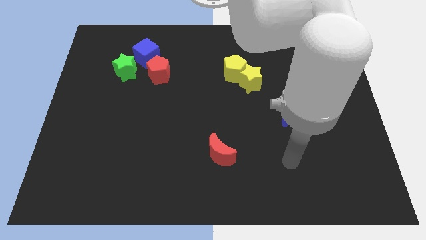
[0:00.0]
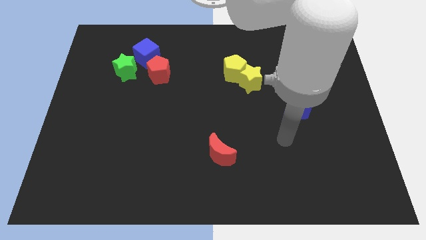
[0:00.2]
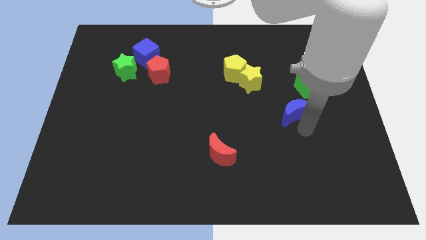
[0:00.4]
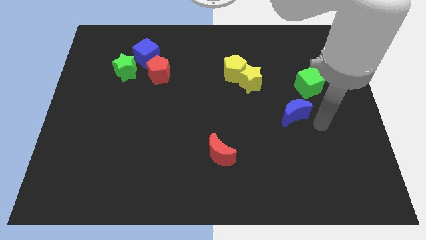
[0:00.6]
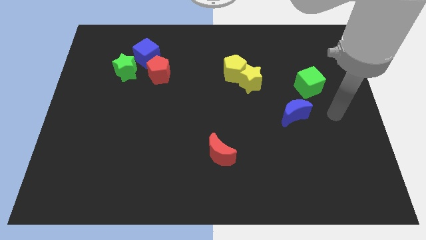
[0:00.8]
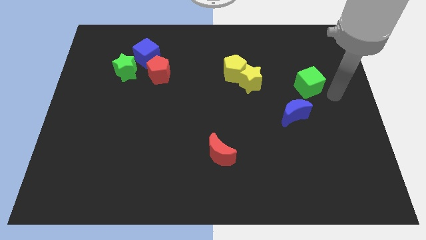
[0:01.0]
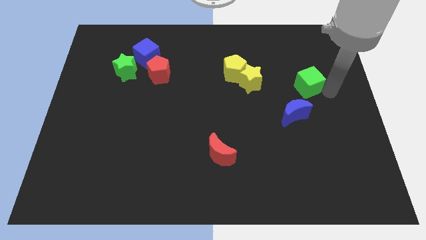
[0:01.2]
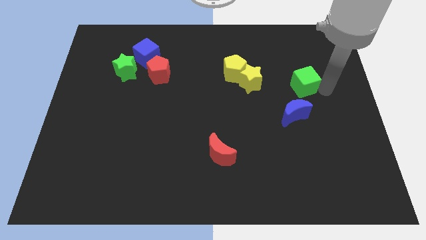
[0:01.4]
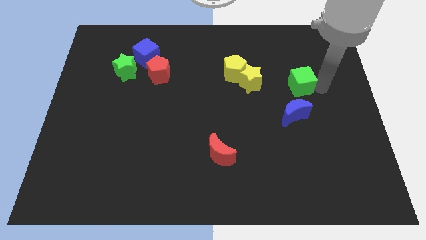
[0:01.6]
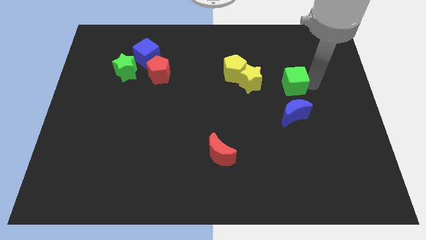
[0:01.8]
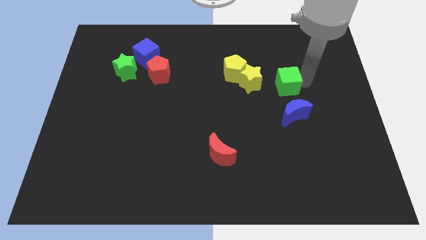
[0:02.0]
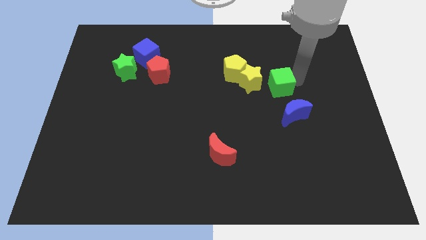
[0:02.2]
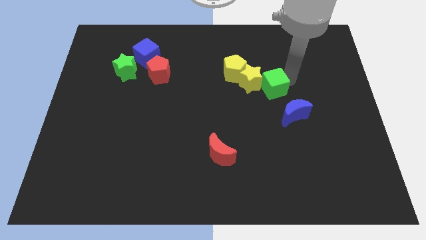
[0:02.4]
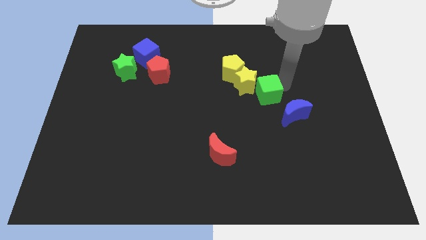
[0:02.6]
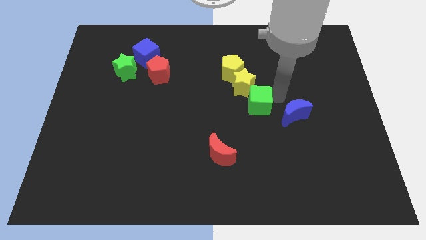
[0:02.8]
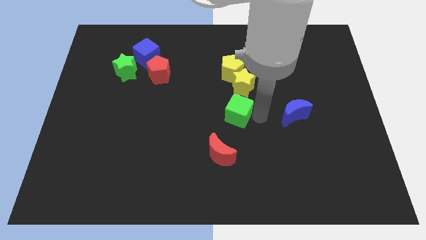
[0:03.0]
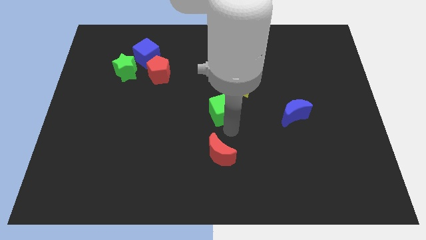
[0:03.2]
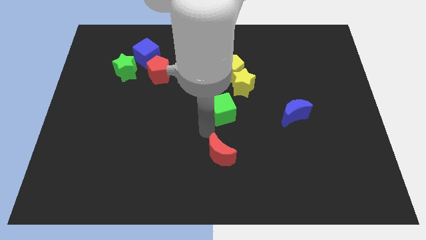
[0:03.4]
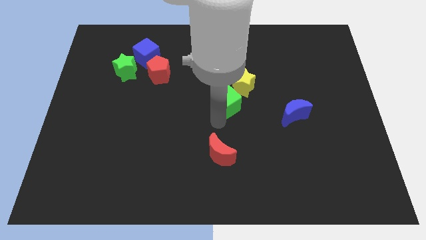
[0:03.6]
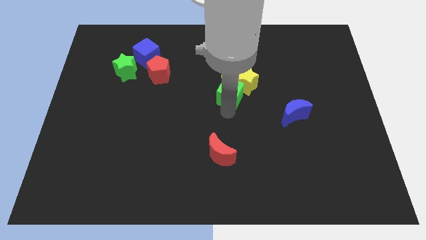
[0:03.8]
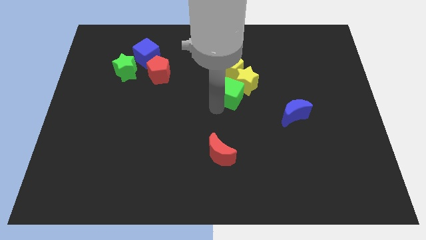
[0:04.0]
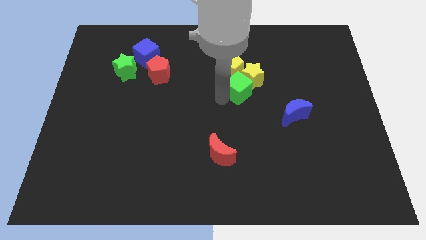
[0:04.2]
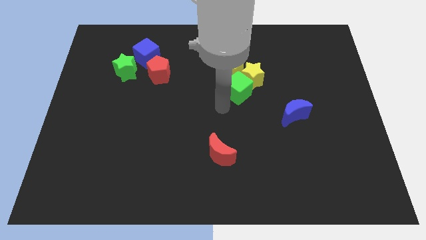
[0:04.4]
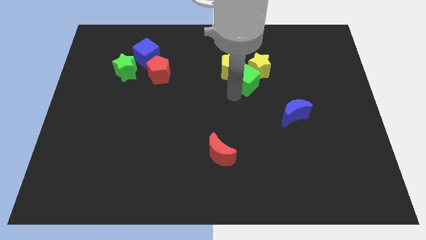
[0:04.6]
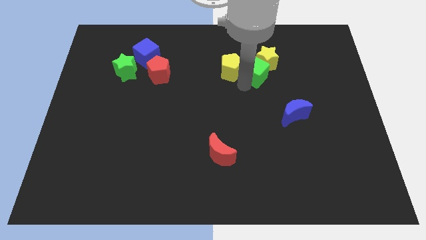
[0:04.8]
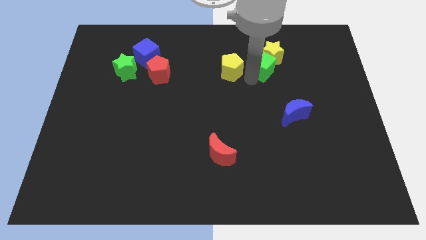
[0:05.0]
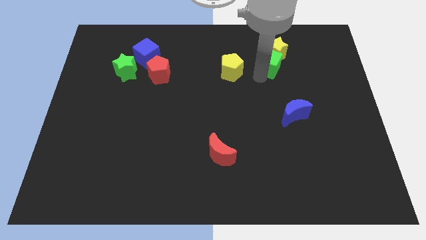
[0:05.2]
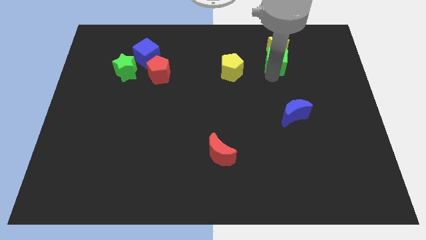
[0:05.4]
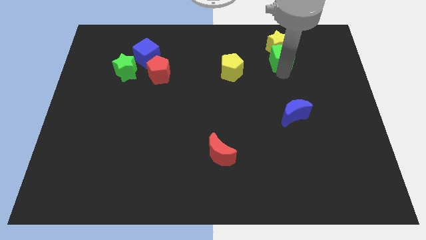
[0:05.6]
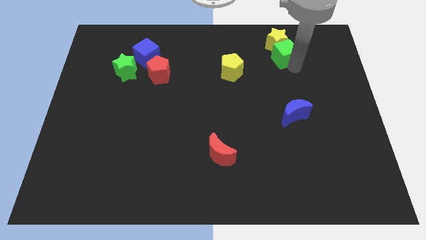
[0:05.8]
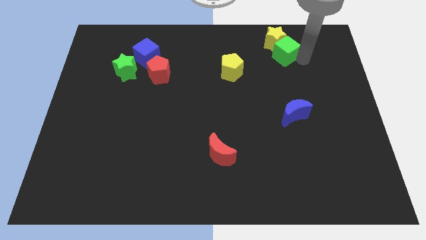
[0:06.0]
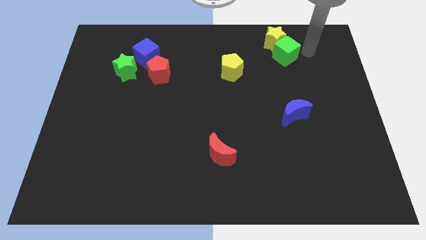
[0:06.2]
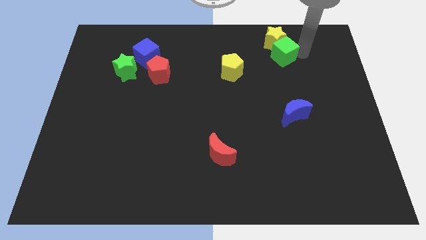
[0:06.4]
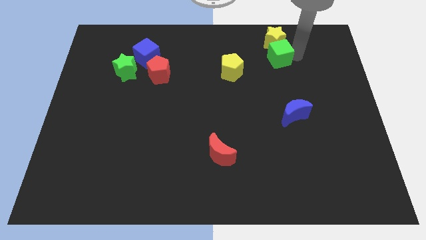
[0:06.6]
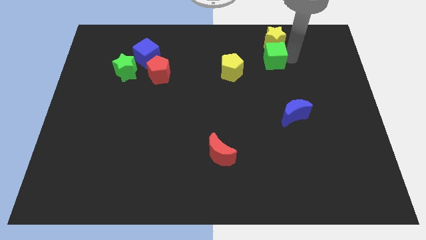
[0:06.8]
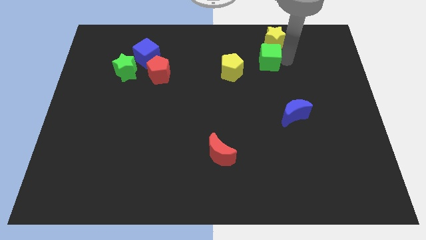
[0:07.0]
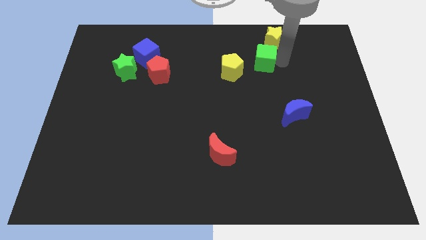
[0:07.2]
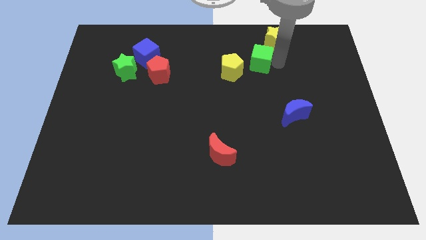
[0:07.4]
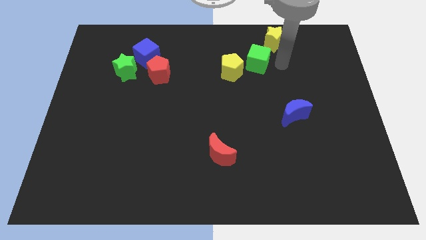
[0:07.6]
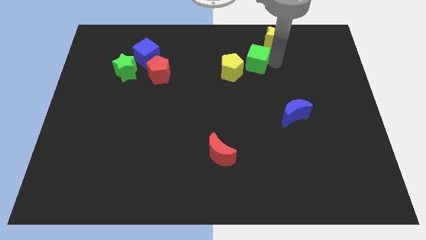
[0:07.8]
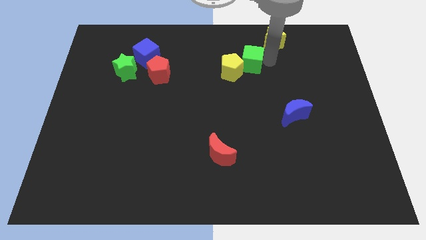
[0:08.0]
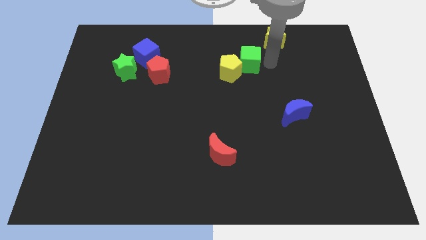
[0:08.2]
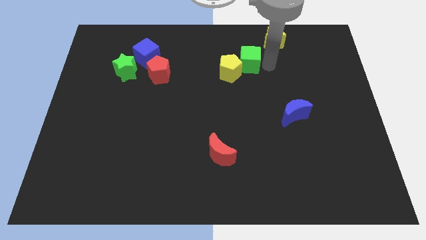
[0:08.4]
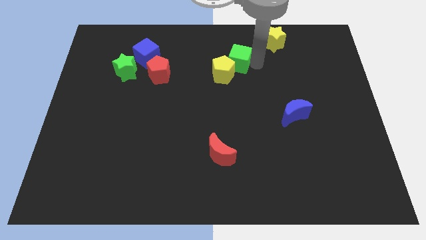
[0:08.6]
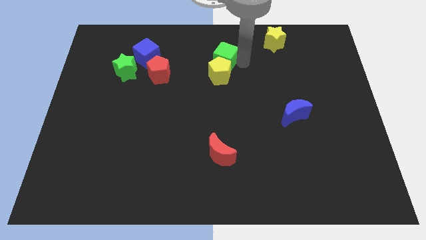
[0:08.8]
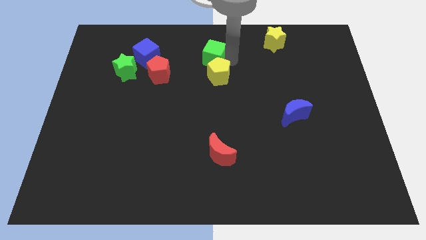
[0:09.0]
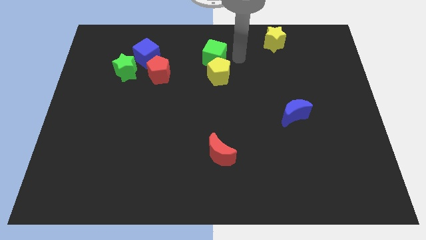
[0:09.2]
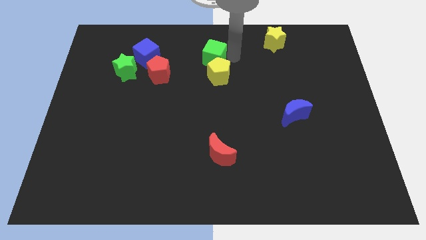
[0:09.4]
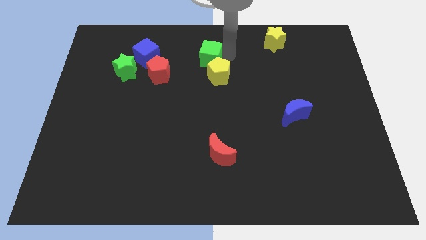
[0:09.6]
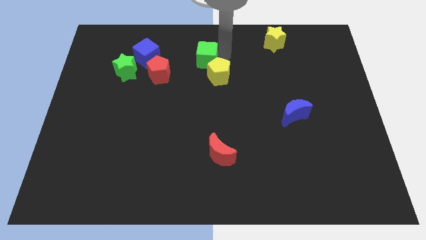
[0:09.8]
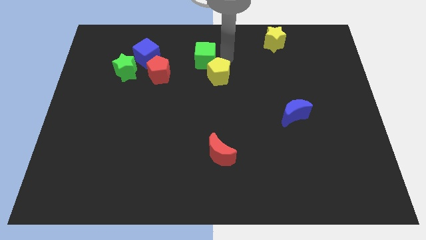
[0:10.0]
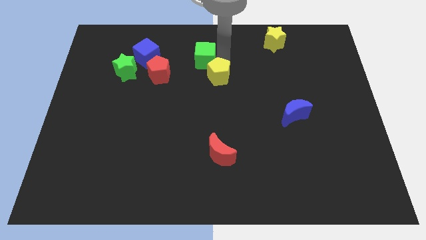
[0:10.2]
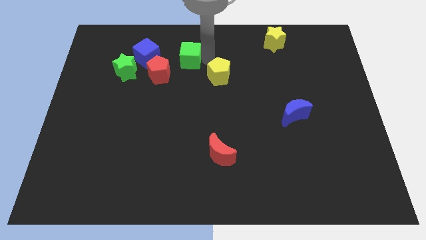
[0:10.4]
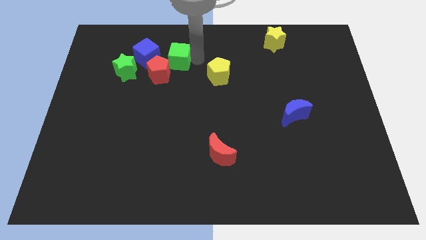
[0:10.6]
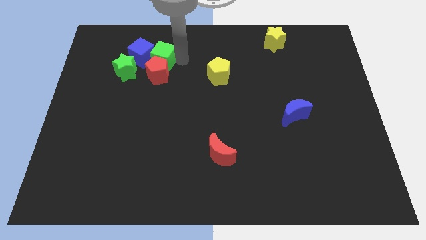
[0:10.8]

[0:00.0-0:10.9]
push the green cube next to the blue cube

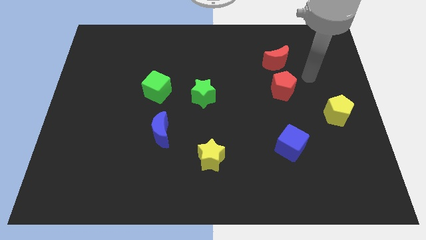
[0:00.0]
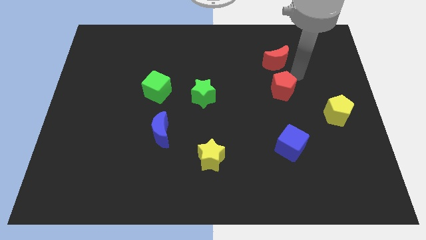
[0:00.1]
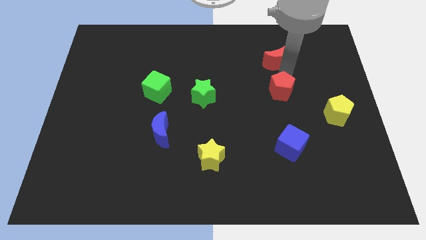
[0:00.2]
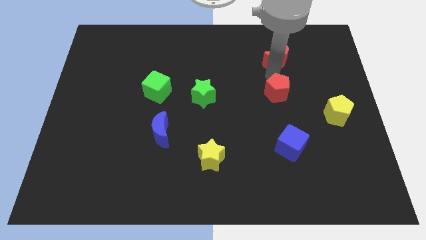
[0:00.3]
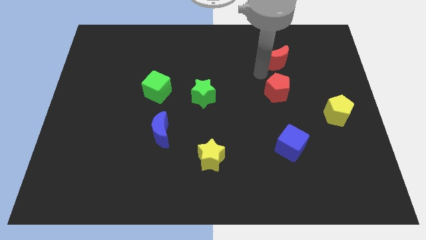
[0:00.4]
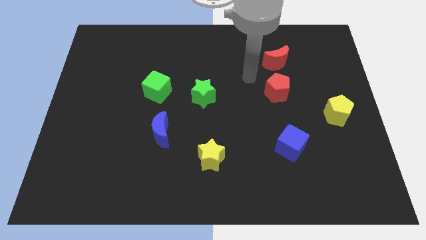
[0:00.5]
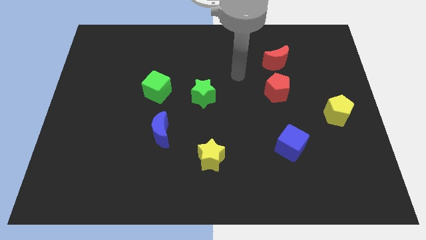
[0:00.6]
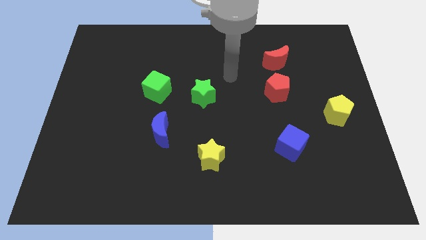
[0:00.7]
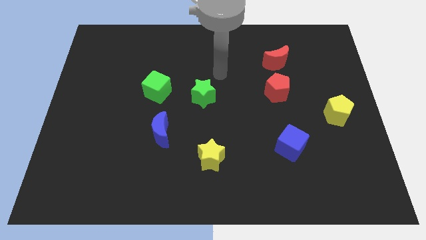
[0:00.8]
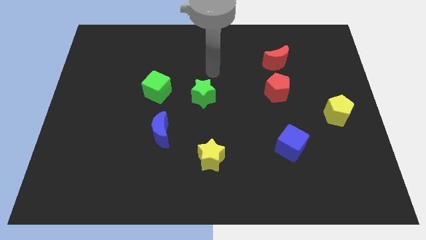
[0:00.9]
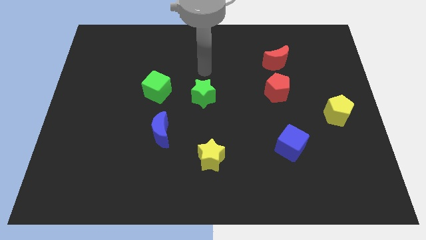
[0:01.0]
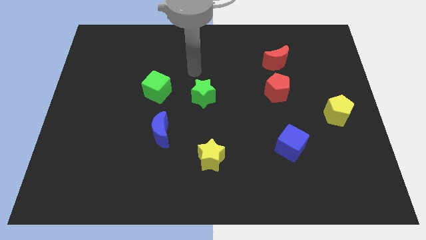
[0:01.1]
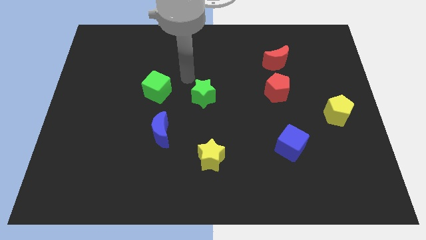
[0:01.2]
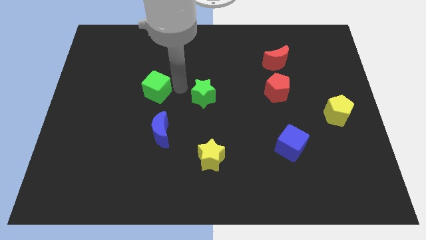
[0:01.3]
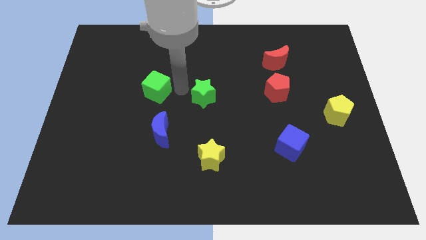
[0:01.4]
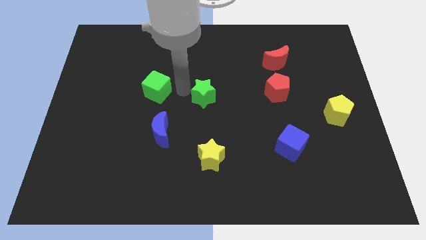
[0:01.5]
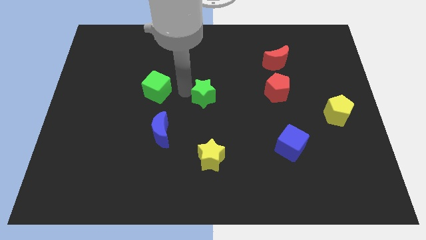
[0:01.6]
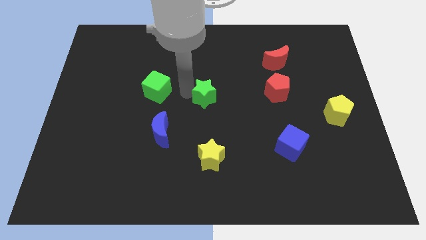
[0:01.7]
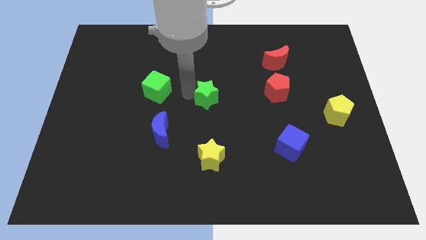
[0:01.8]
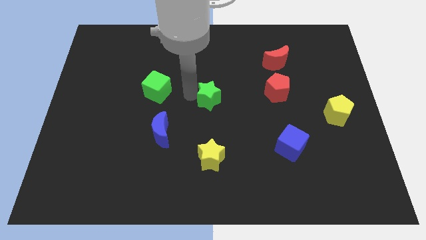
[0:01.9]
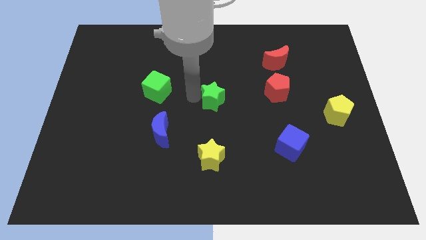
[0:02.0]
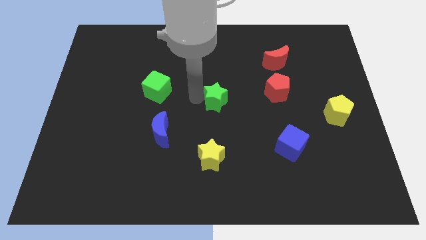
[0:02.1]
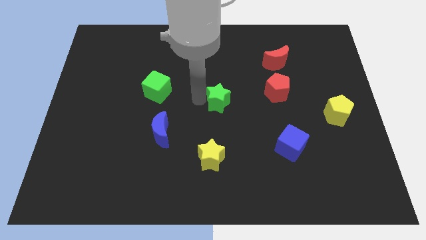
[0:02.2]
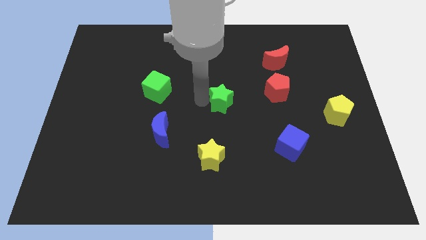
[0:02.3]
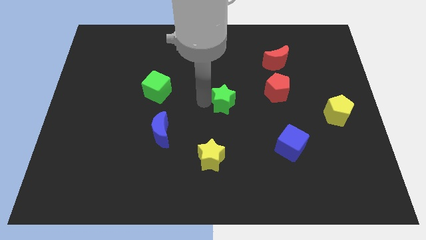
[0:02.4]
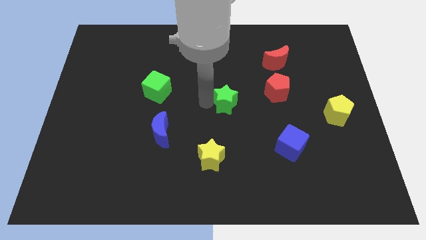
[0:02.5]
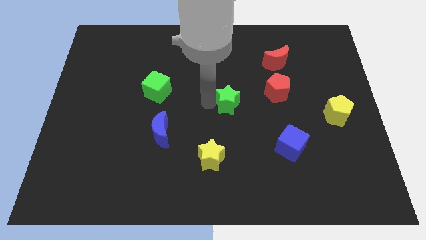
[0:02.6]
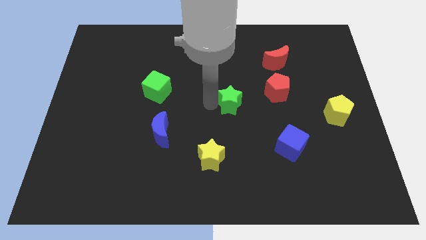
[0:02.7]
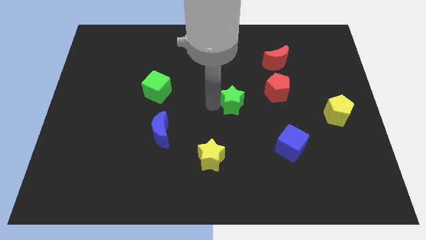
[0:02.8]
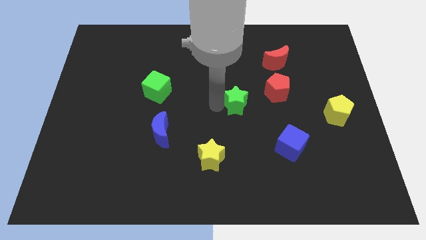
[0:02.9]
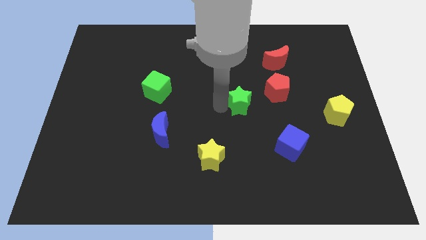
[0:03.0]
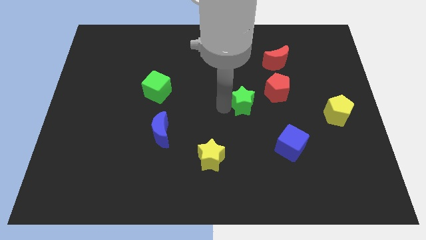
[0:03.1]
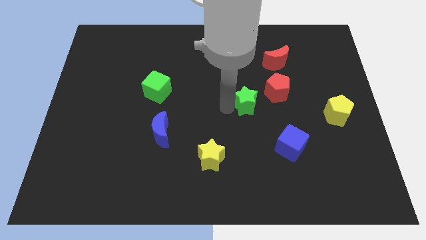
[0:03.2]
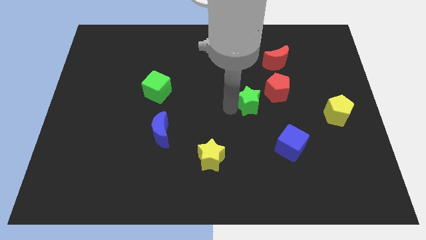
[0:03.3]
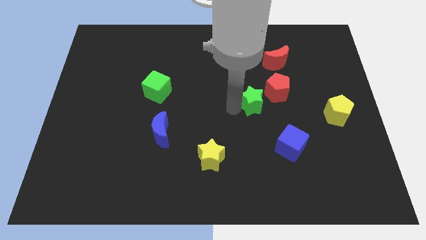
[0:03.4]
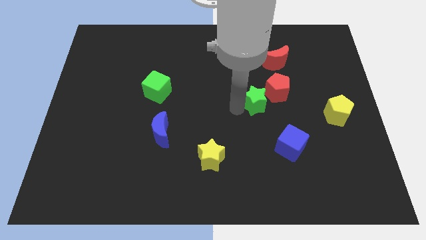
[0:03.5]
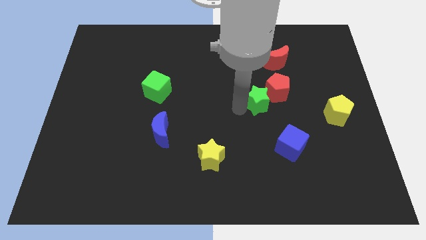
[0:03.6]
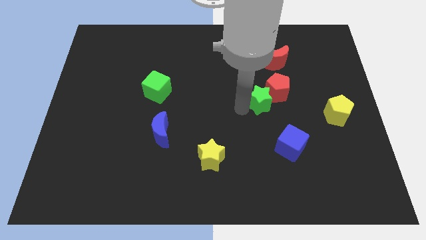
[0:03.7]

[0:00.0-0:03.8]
put the green star towards the red pentagon
